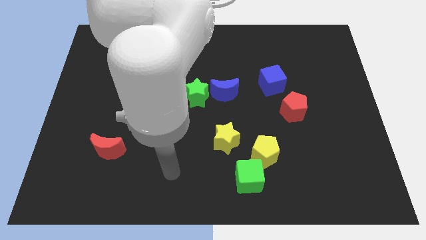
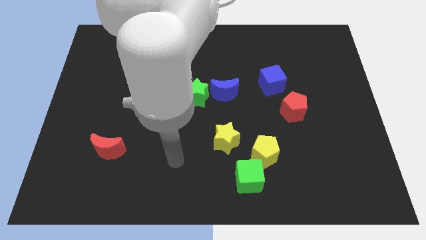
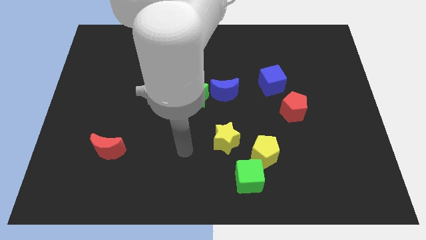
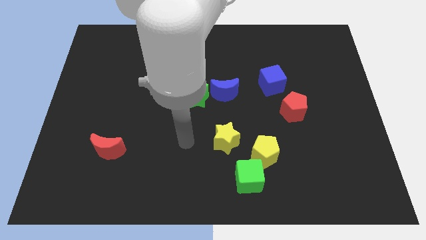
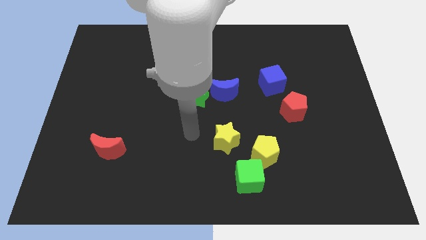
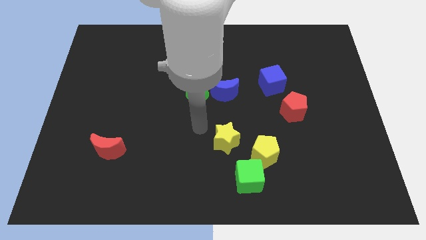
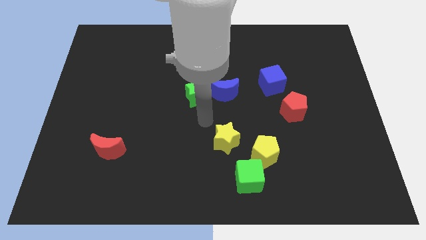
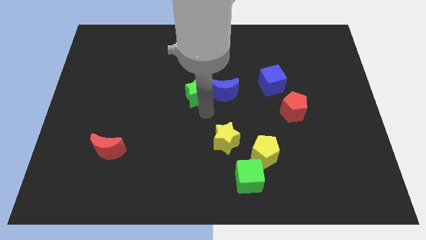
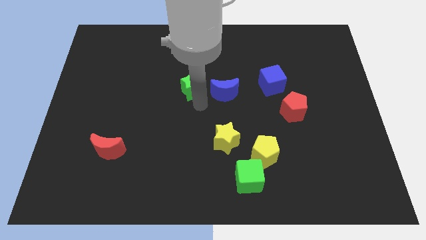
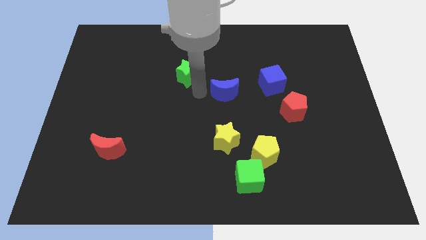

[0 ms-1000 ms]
move the blue moon away from the green star

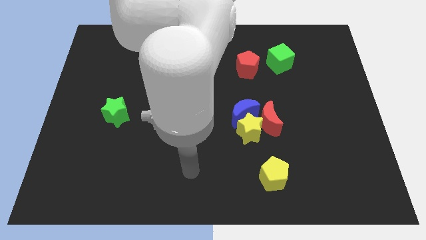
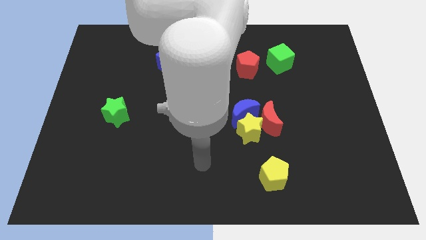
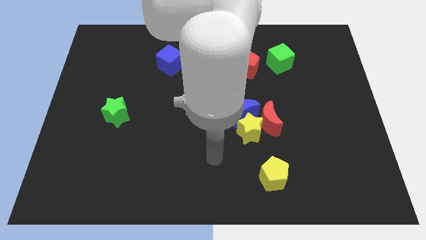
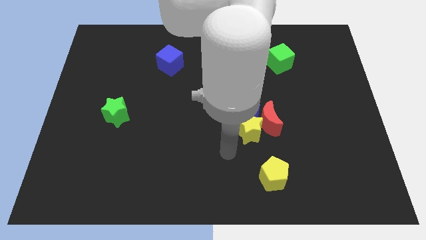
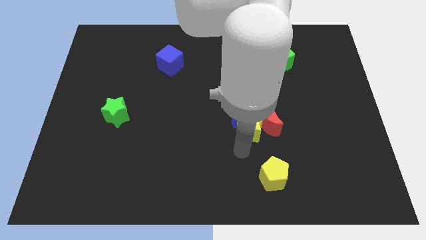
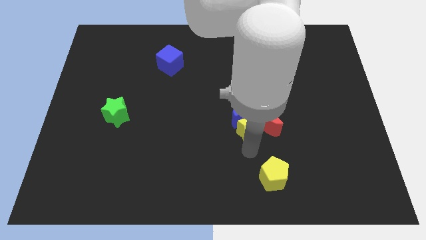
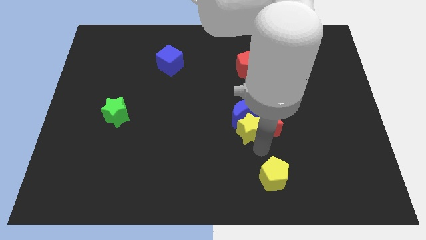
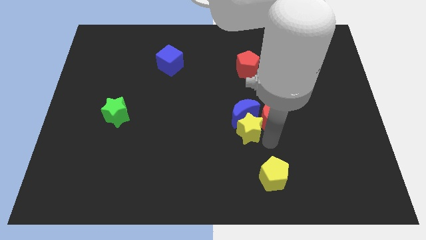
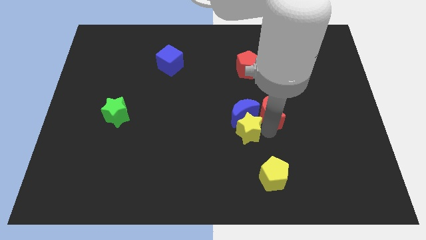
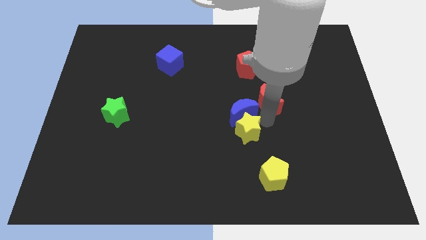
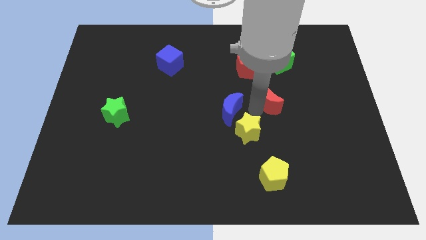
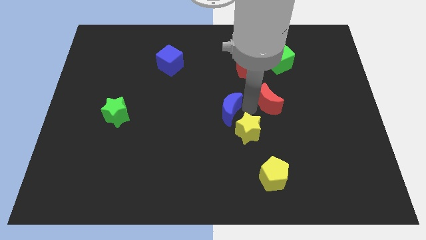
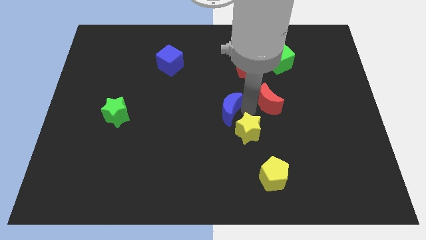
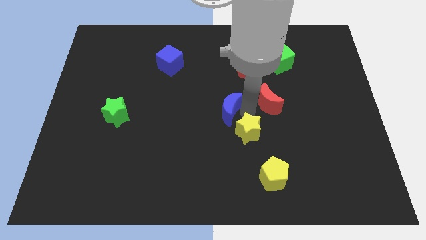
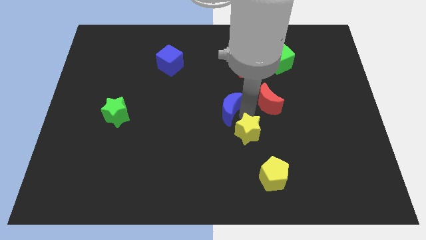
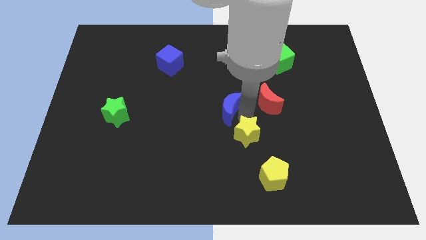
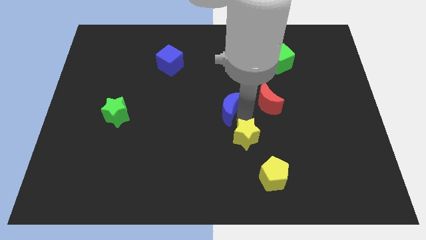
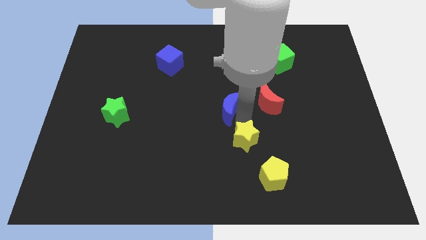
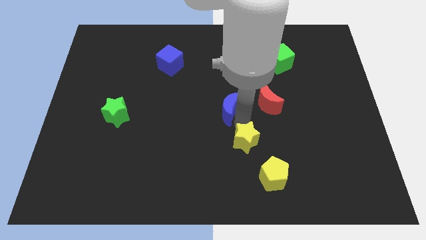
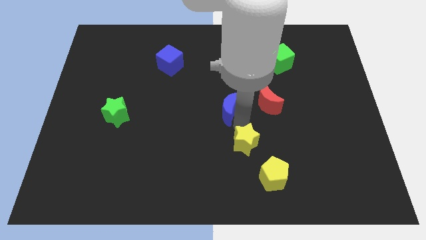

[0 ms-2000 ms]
separate the yellow star from the blue moon and red moon

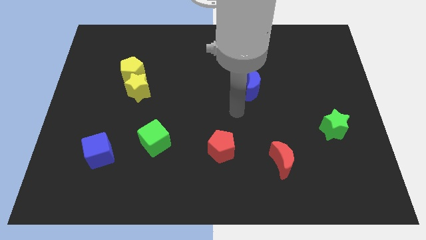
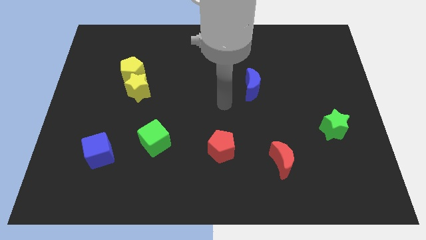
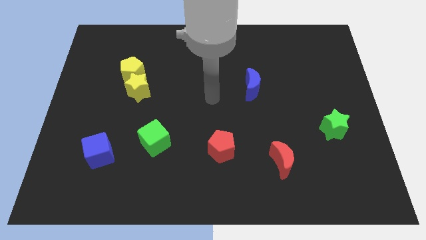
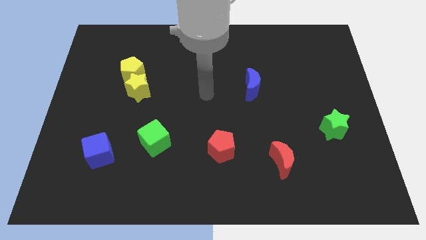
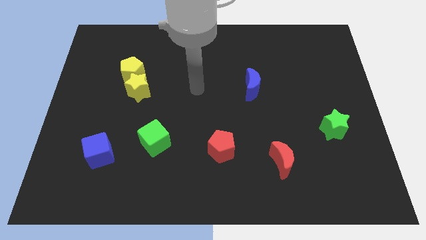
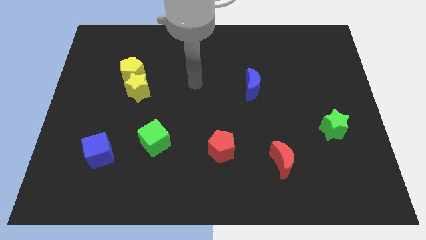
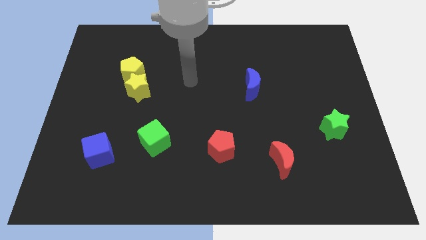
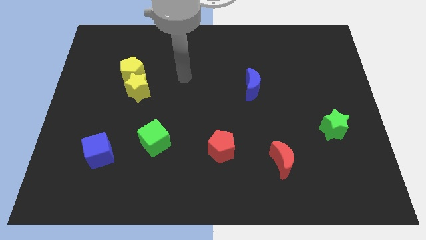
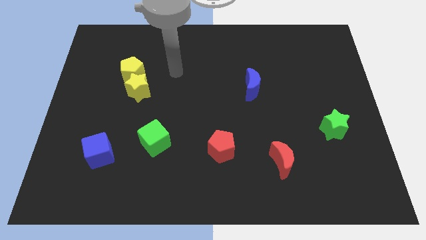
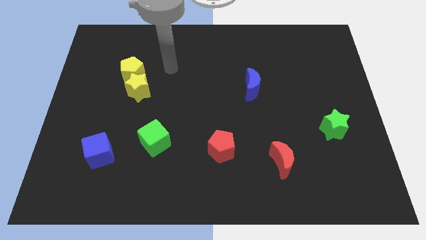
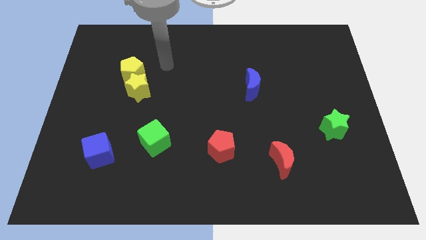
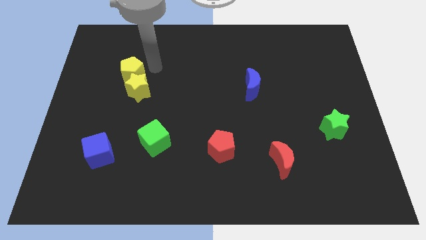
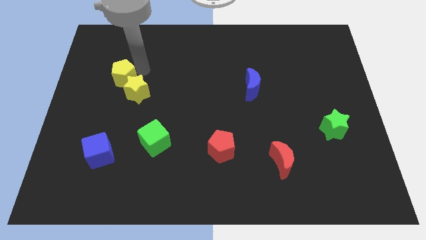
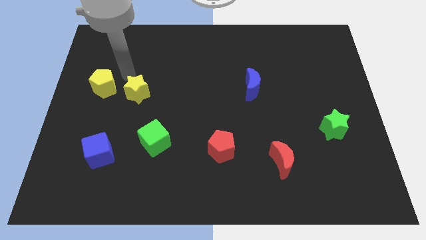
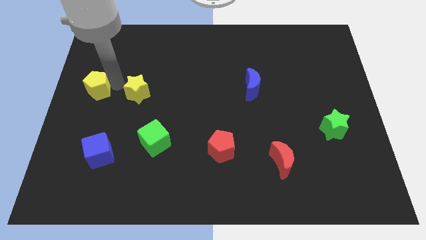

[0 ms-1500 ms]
separate the yellow star from the yellow pentagon

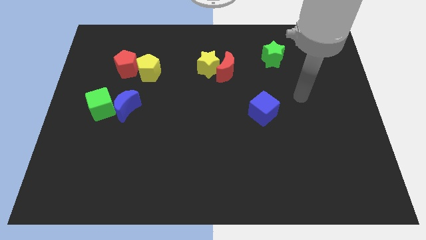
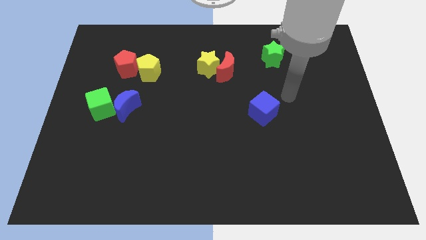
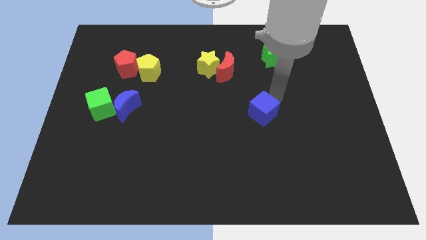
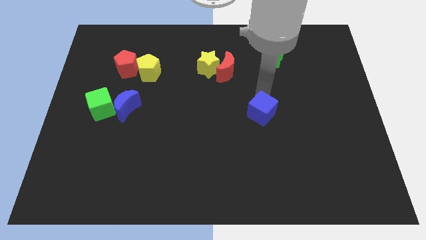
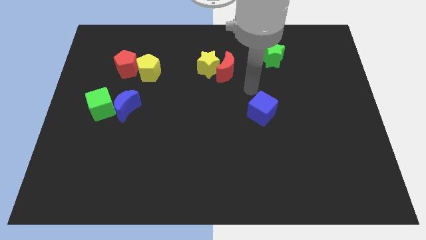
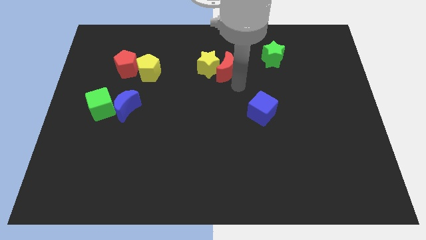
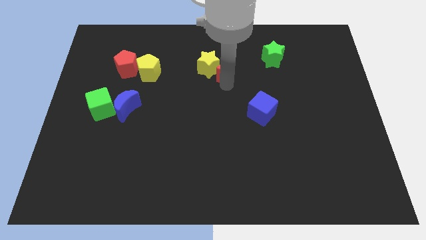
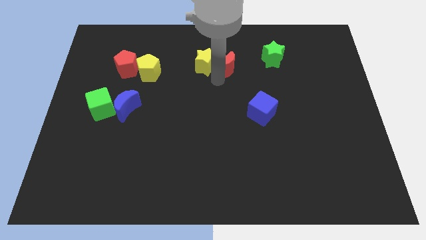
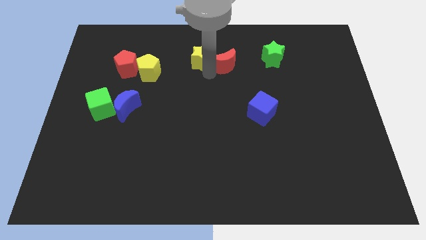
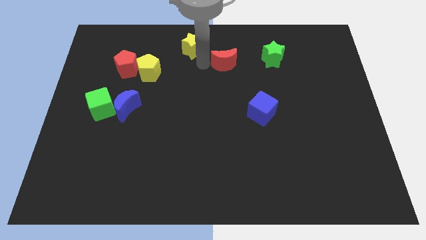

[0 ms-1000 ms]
separate the red moon from the yellow star

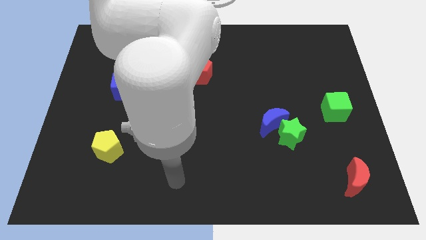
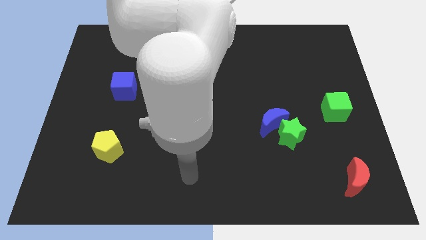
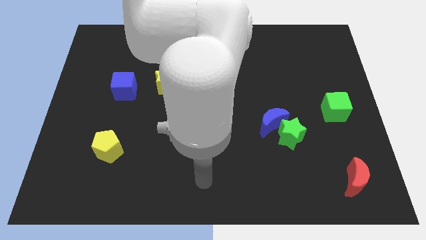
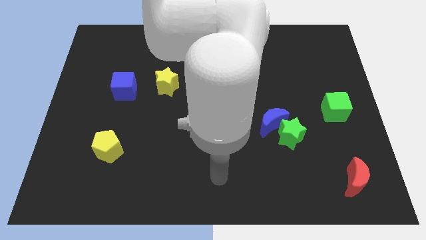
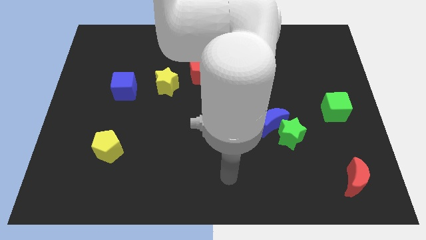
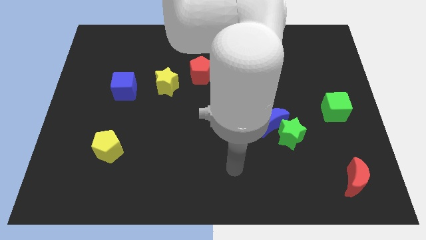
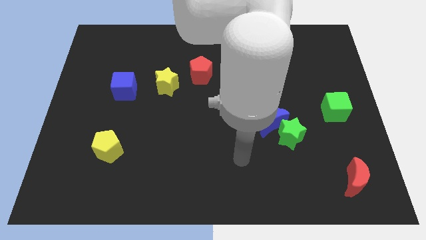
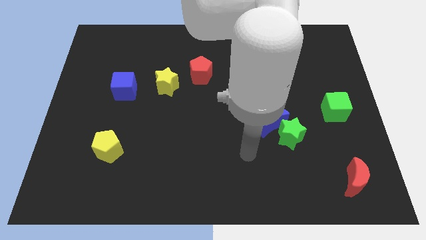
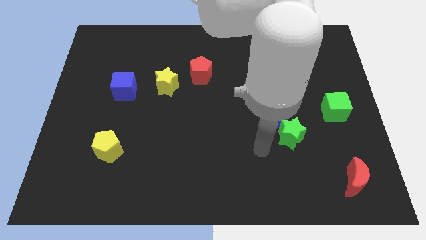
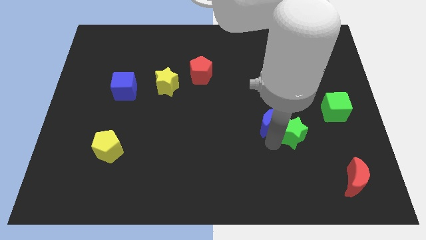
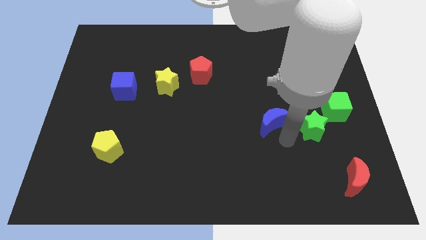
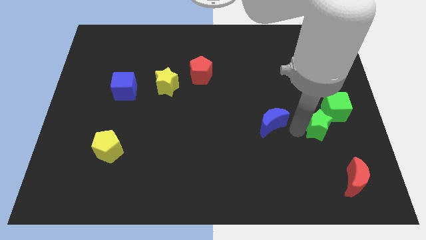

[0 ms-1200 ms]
pull the blue moon apart from the green star

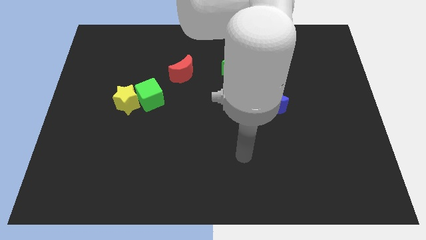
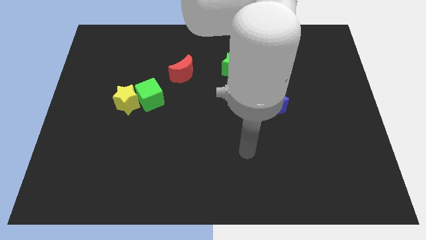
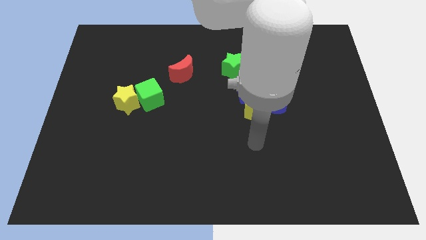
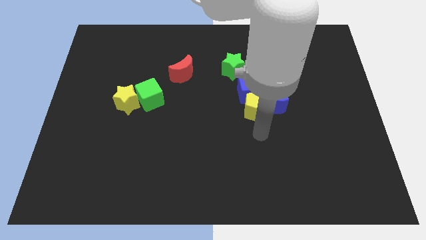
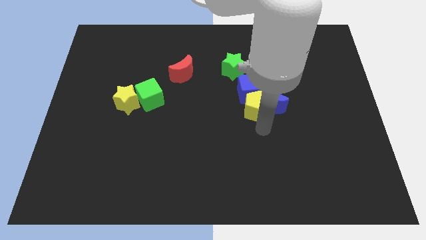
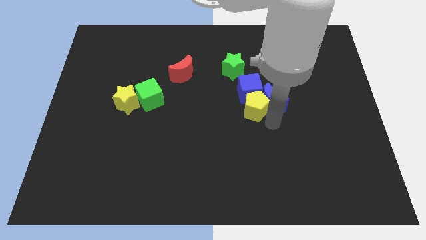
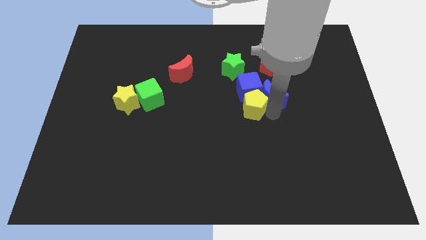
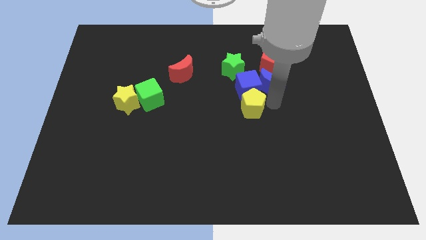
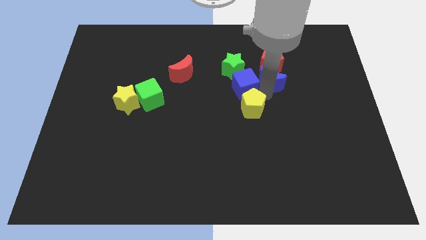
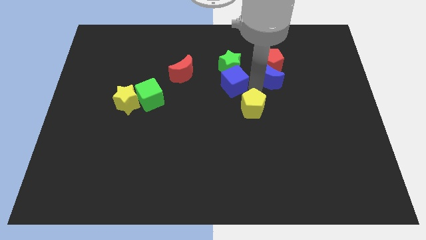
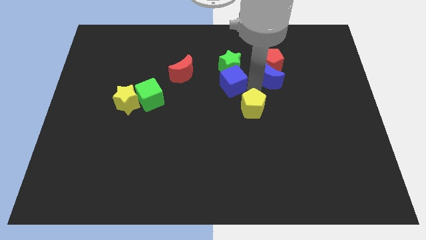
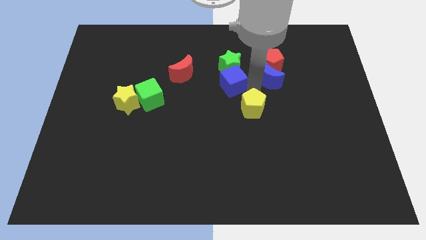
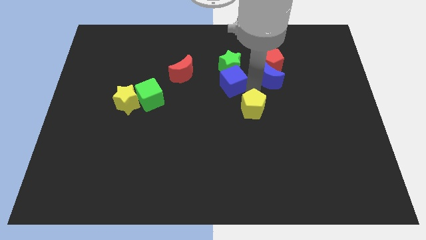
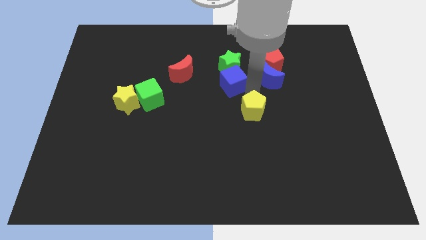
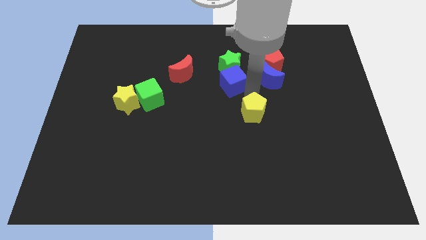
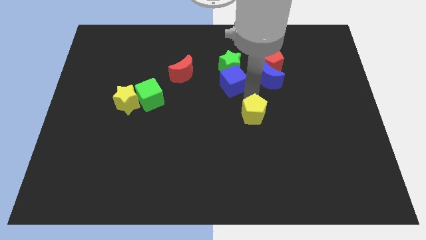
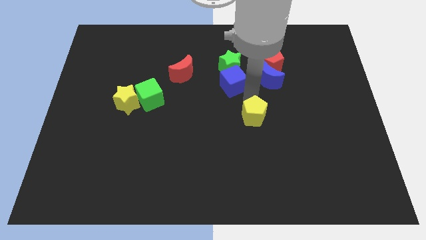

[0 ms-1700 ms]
move the yellow pentagon away from the blue moon and blue cube

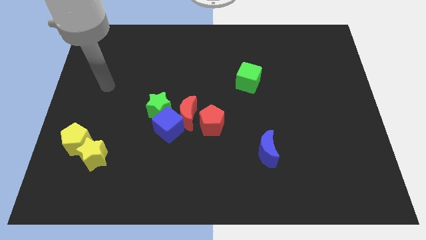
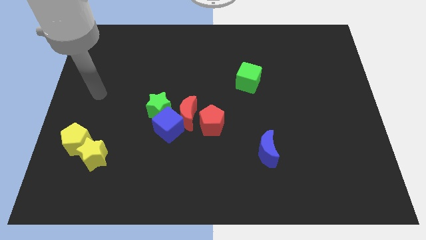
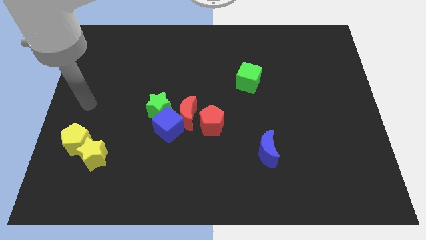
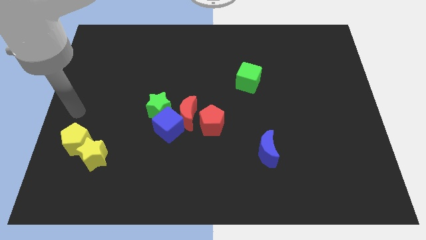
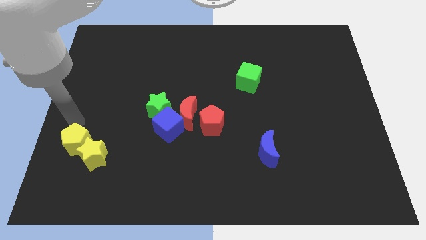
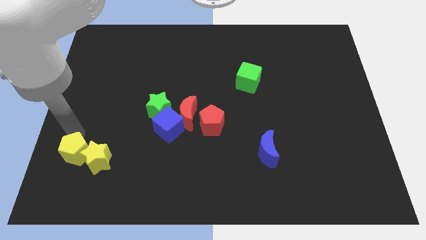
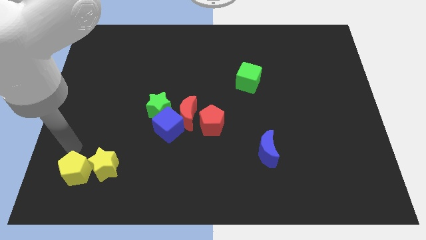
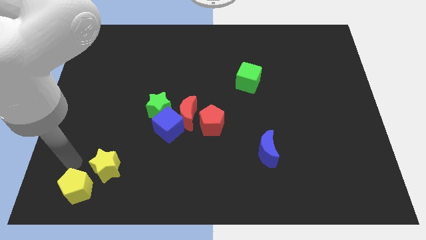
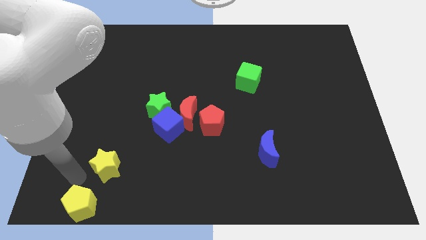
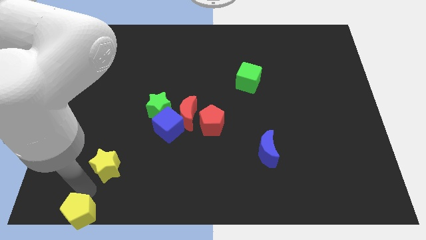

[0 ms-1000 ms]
move the yellow star away from the yellow pentagon

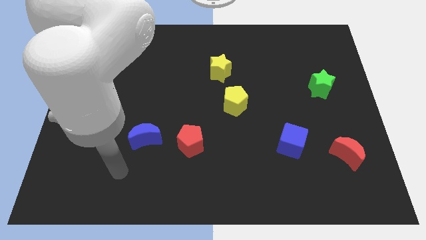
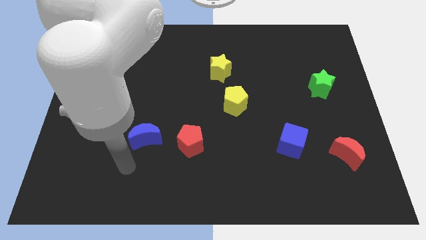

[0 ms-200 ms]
move the red pentagon away from the blue moon
